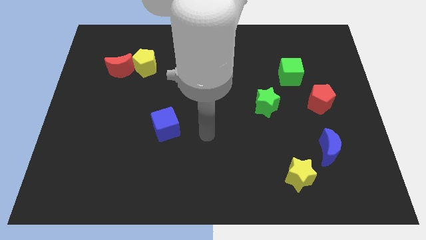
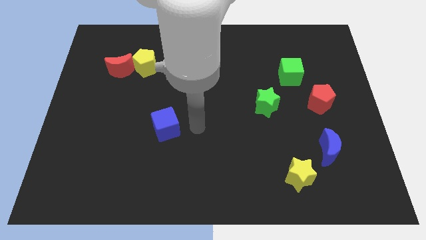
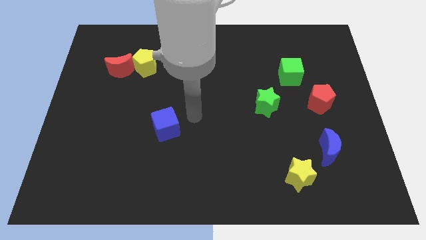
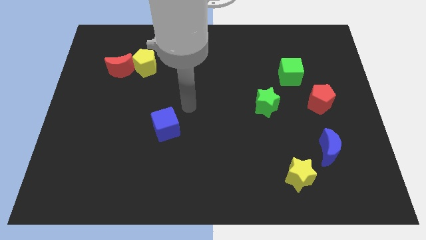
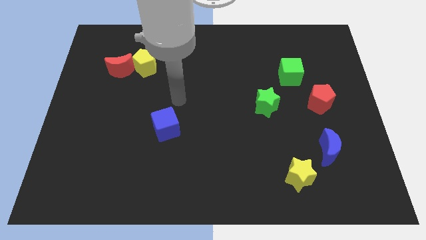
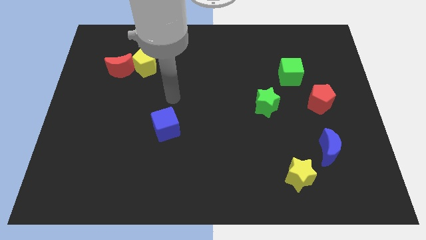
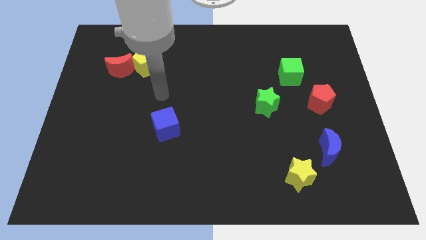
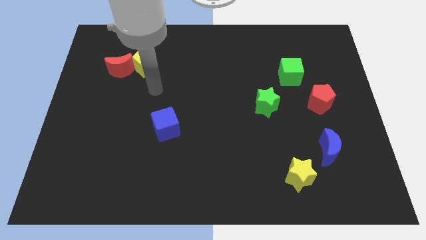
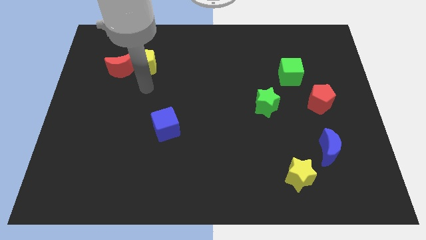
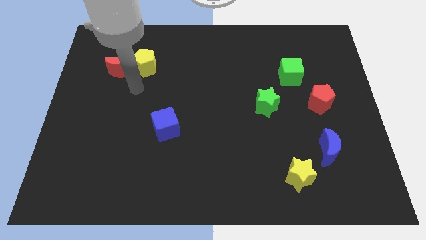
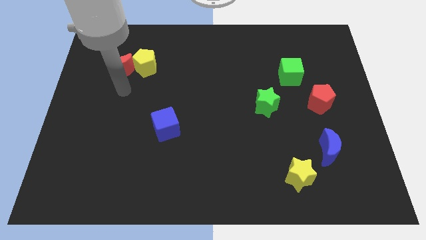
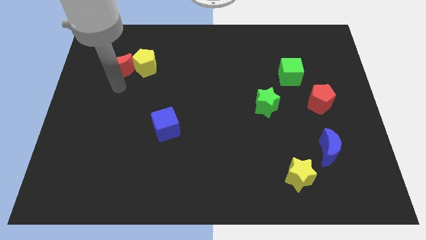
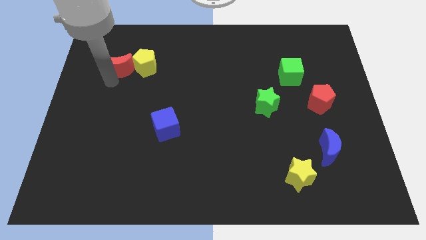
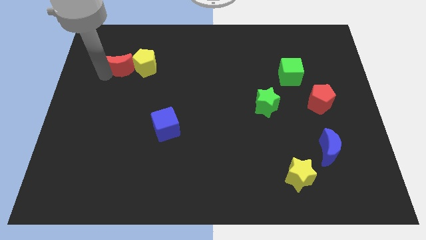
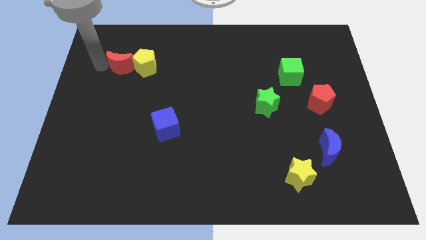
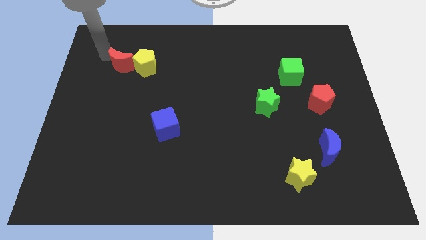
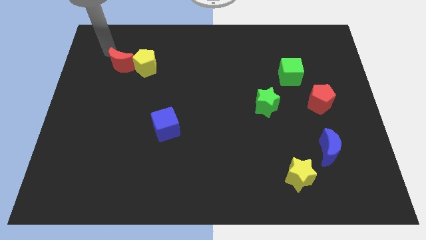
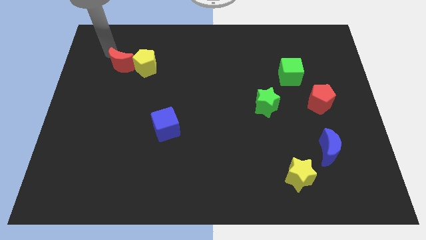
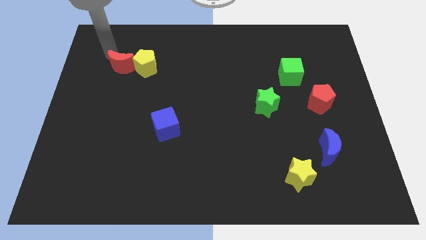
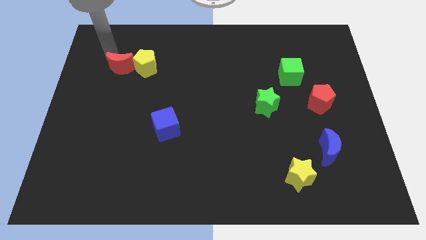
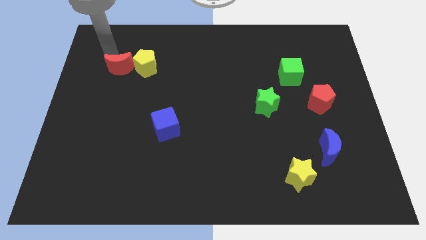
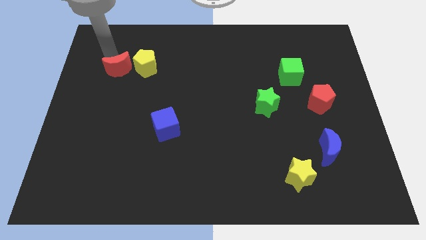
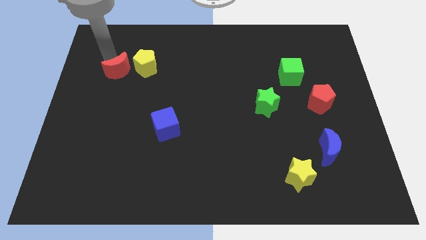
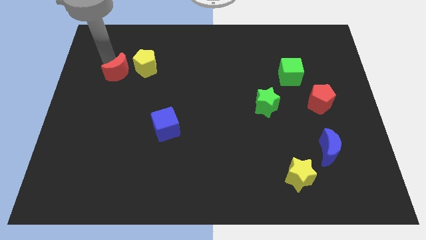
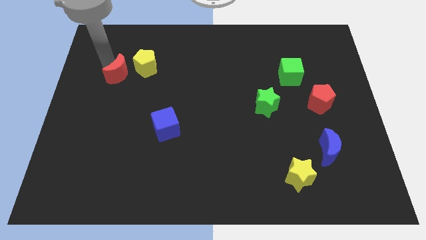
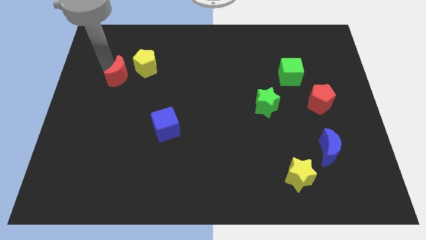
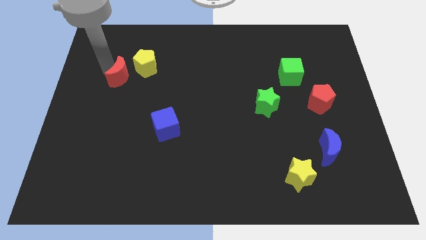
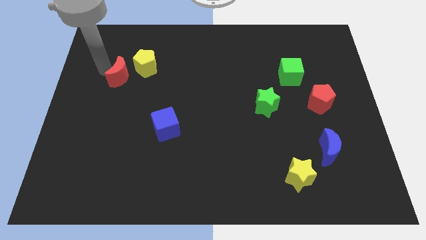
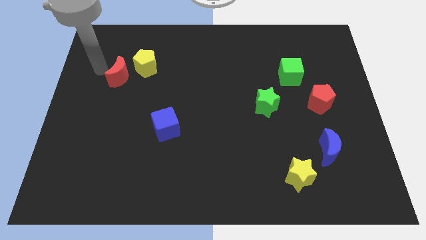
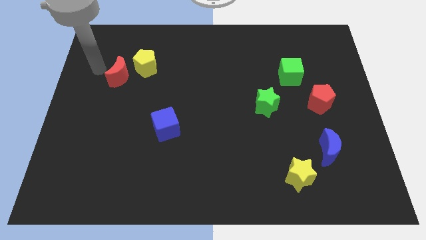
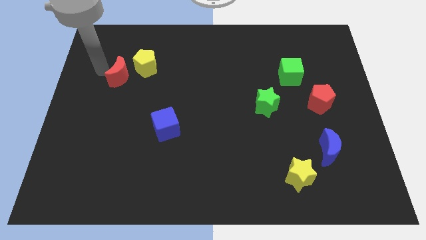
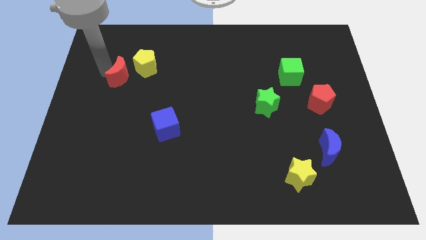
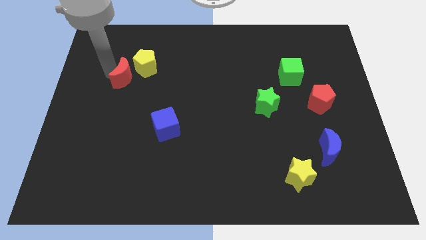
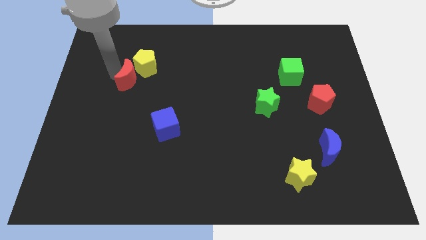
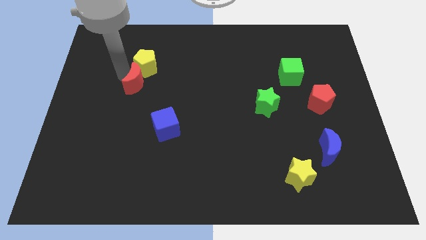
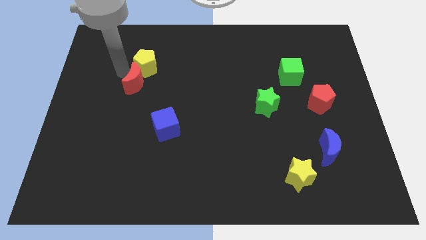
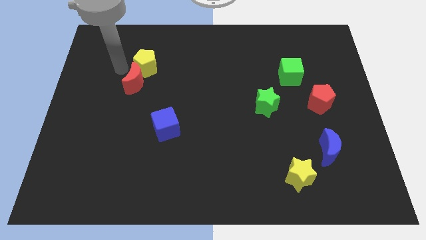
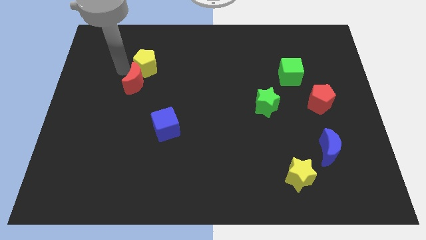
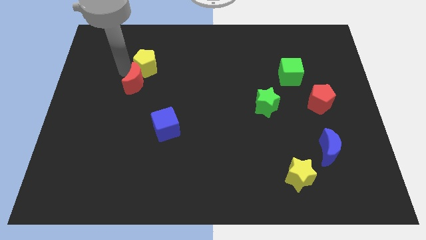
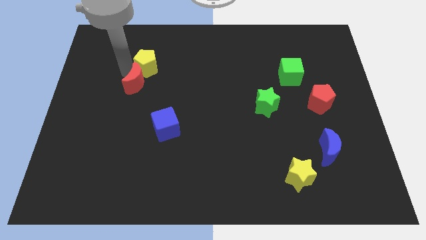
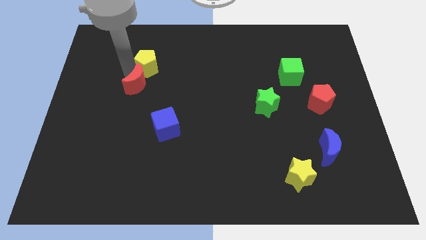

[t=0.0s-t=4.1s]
slightly move the red moon diagonally downwards and to the right

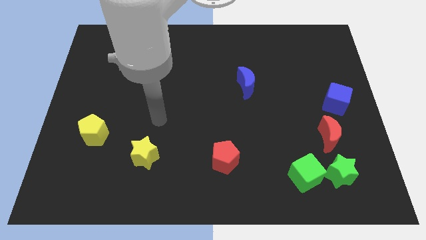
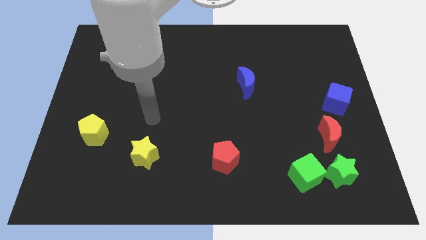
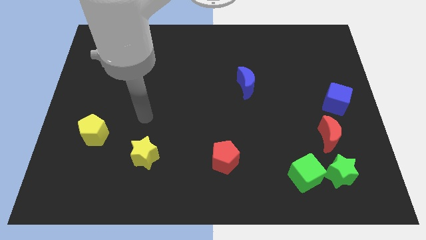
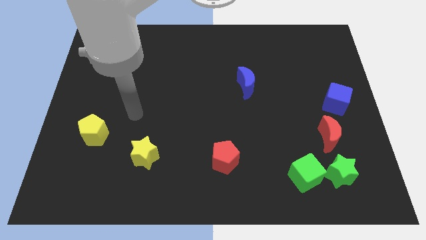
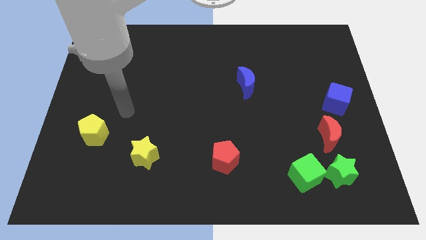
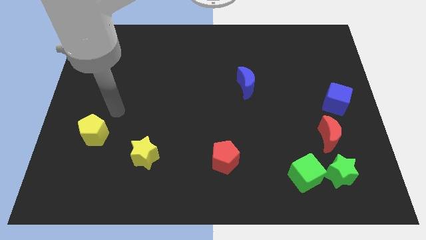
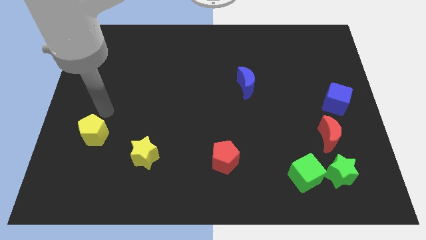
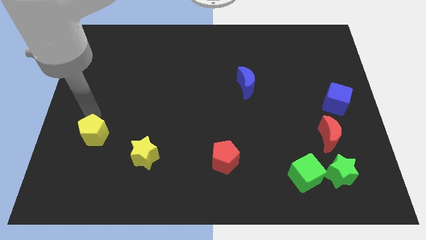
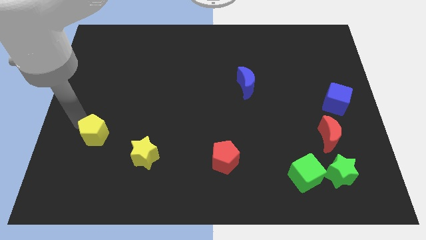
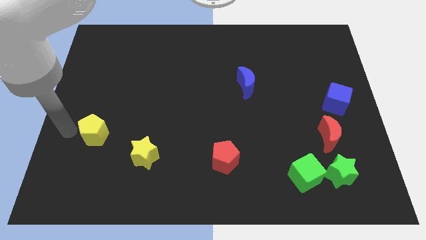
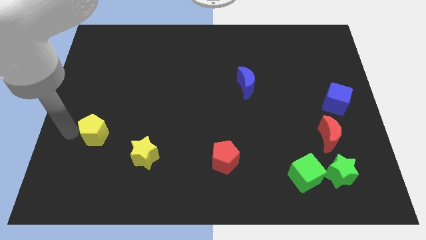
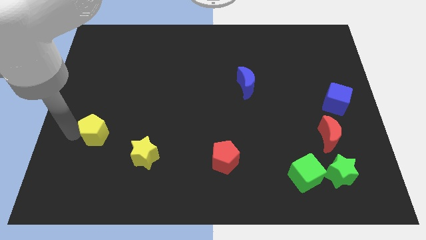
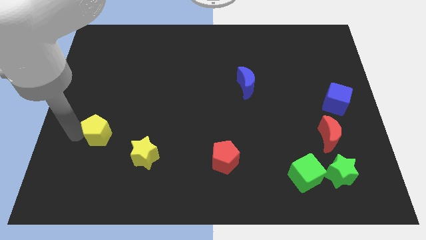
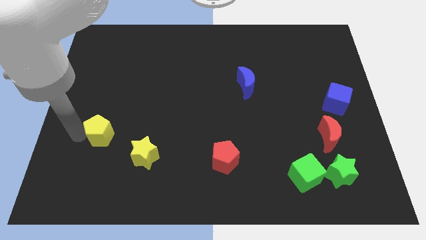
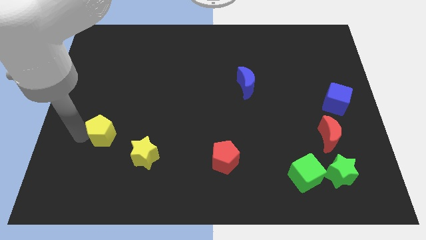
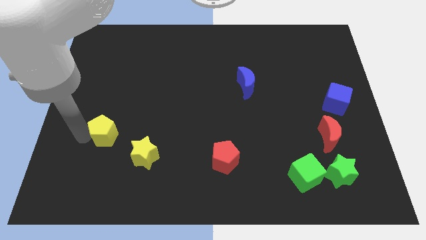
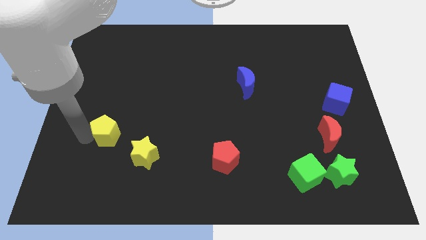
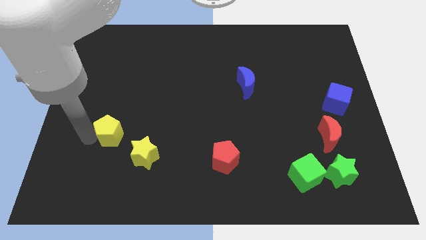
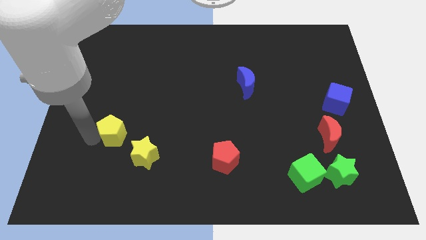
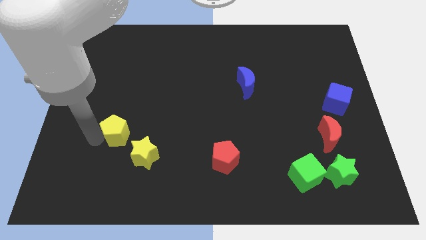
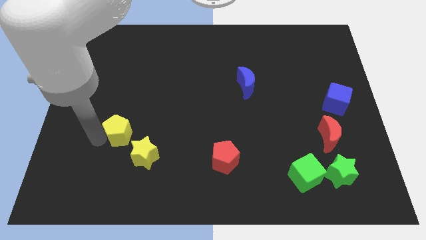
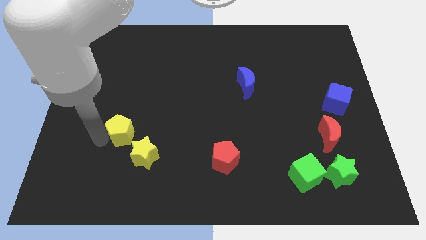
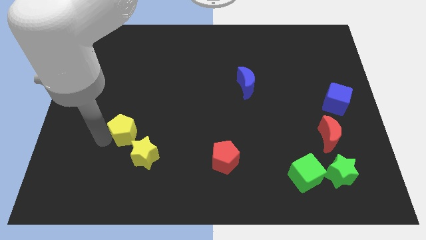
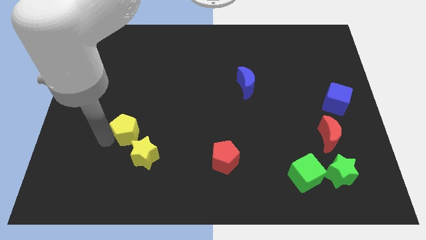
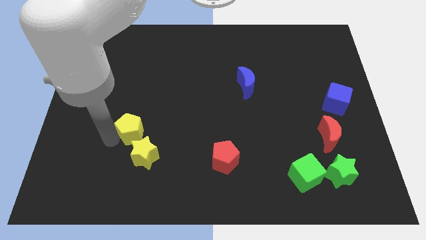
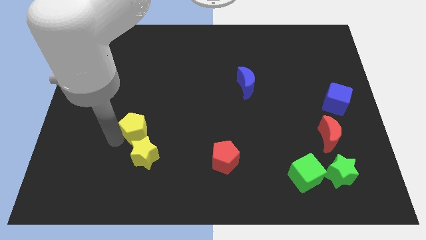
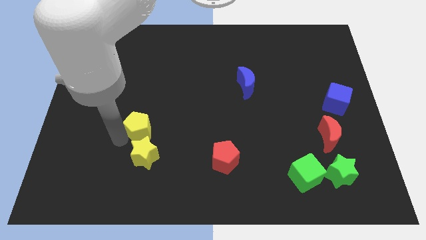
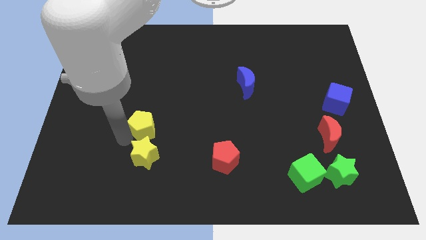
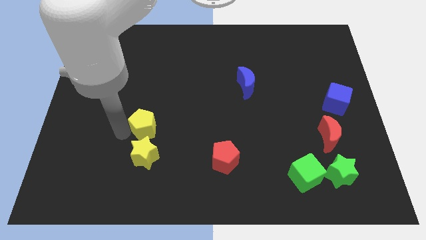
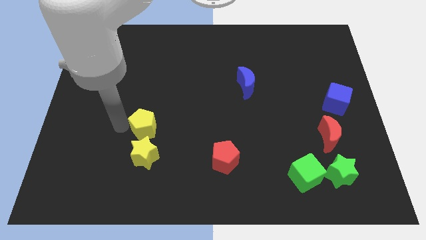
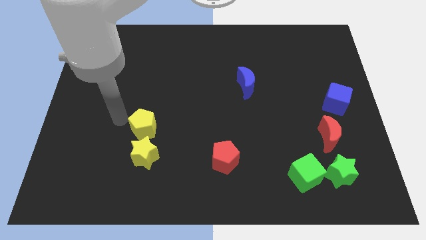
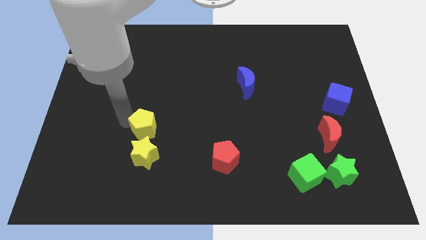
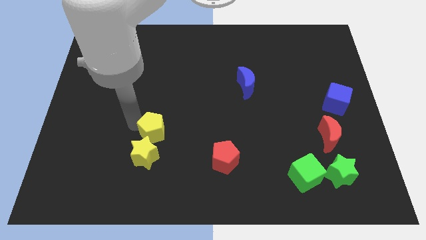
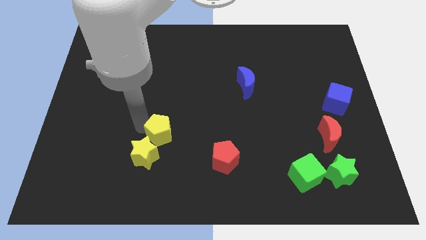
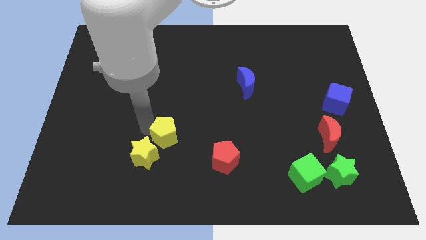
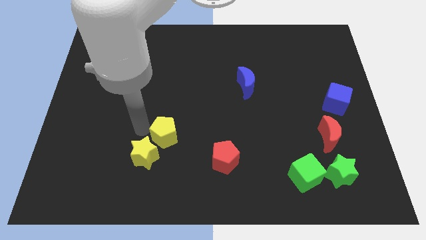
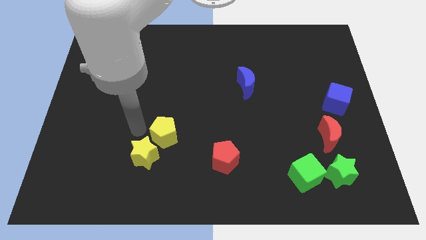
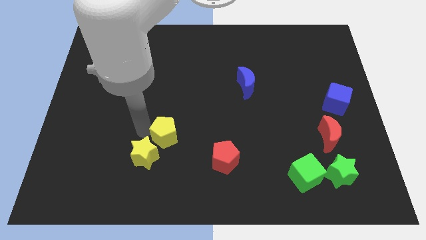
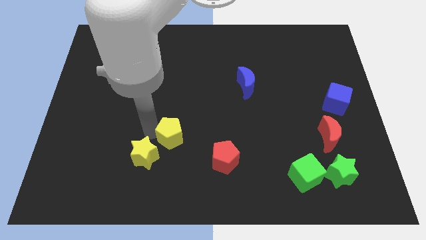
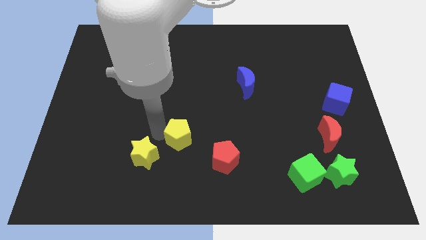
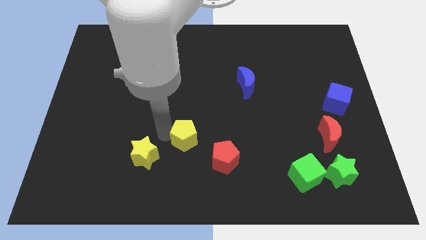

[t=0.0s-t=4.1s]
move the yellow pentagon to the right
